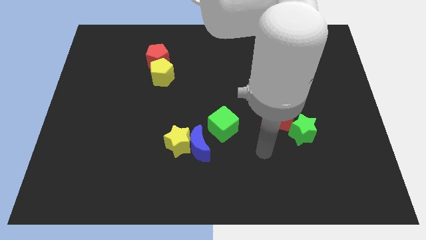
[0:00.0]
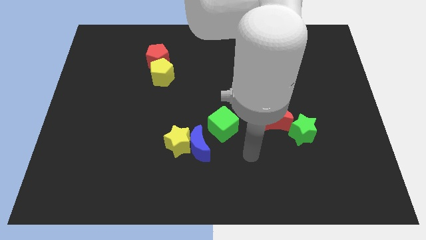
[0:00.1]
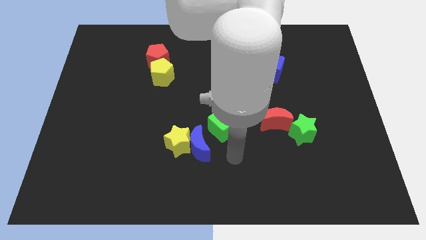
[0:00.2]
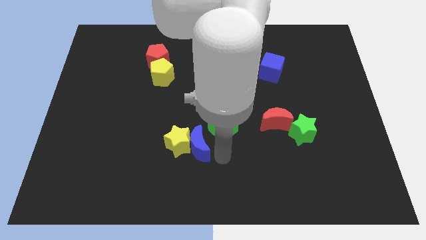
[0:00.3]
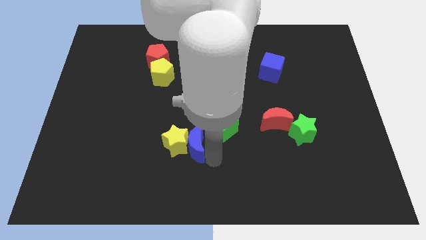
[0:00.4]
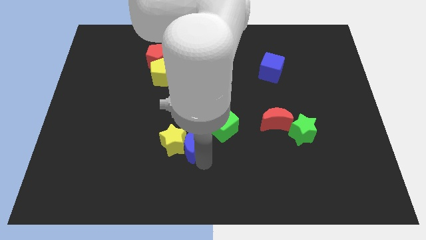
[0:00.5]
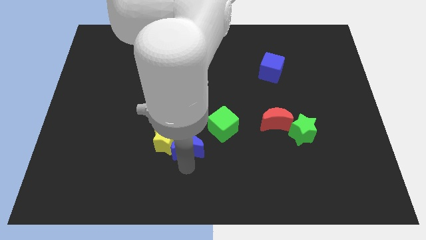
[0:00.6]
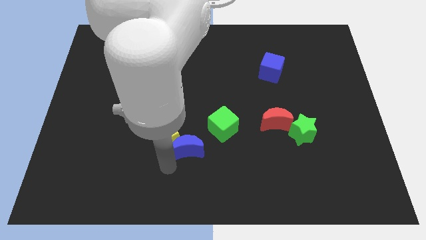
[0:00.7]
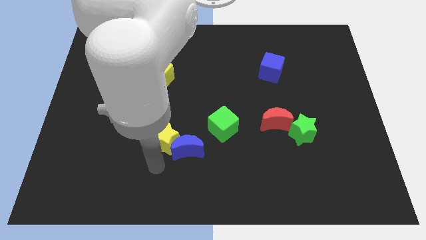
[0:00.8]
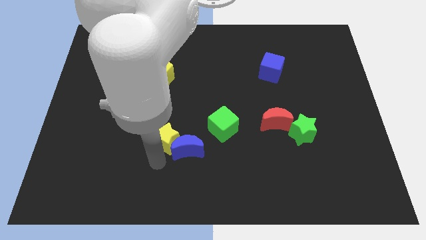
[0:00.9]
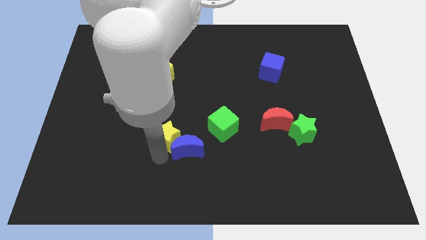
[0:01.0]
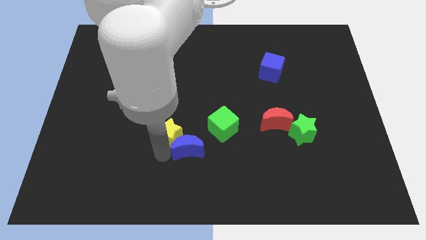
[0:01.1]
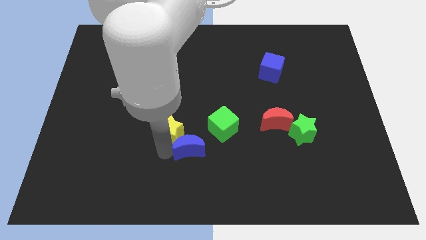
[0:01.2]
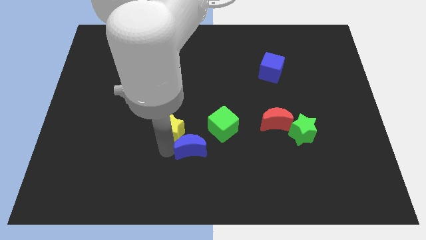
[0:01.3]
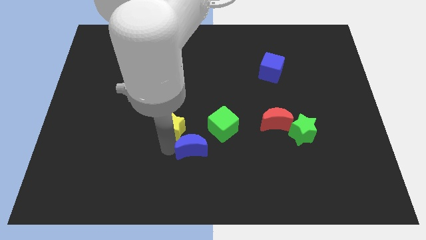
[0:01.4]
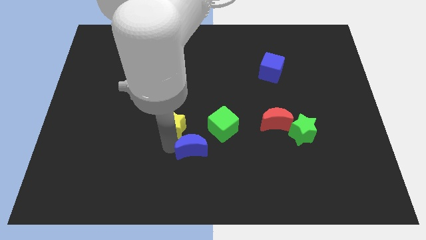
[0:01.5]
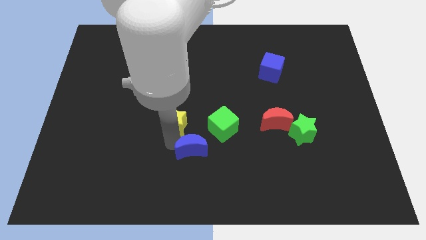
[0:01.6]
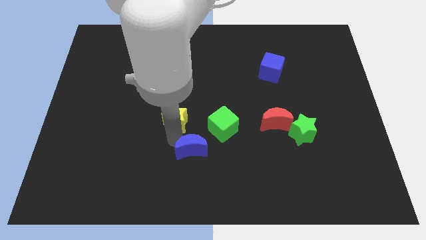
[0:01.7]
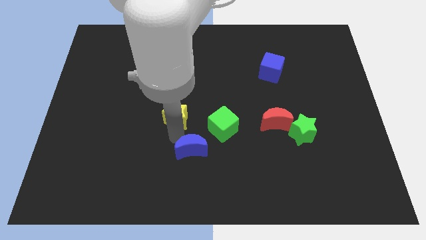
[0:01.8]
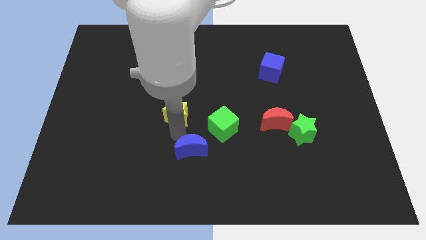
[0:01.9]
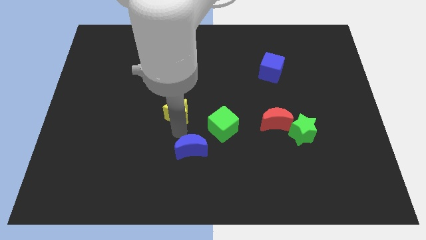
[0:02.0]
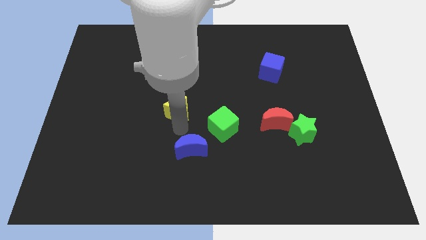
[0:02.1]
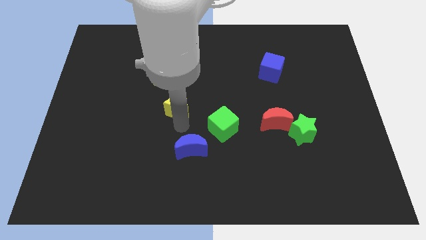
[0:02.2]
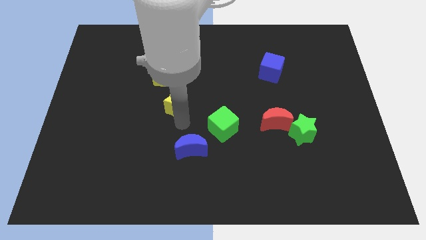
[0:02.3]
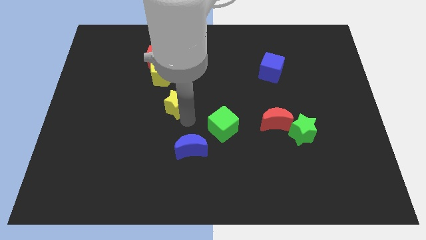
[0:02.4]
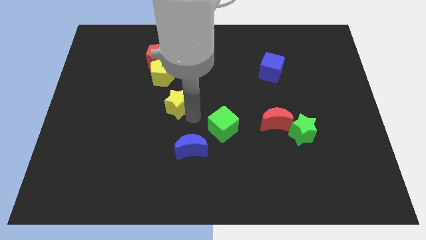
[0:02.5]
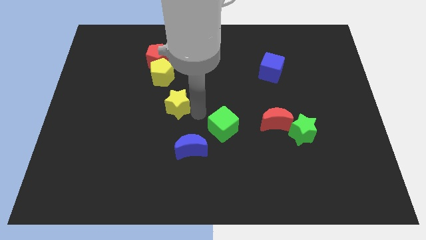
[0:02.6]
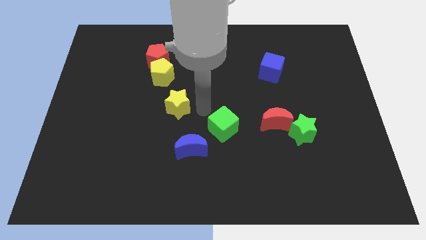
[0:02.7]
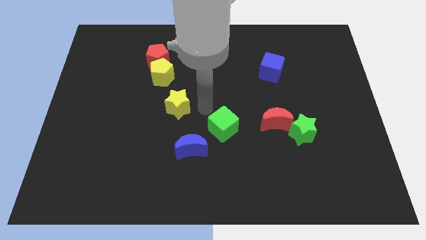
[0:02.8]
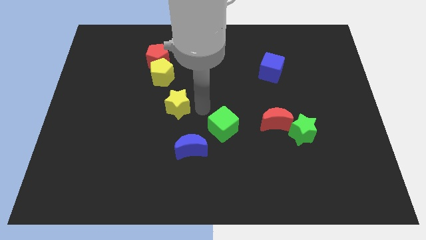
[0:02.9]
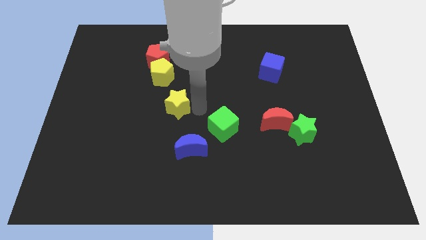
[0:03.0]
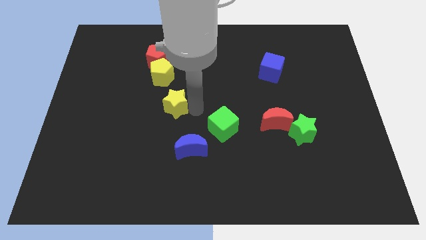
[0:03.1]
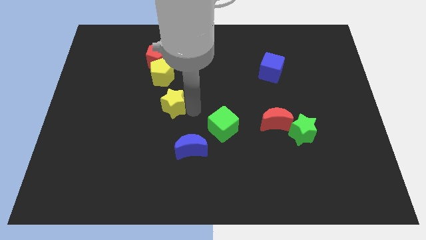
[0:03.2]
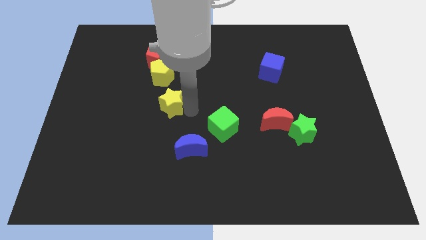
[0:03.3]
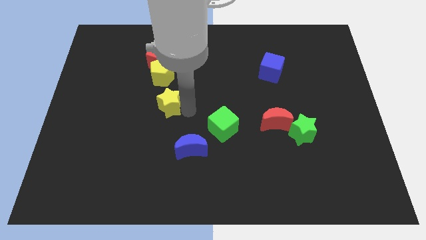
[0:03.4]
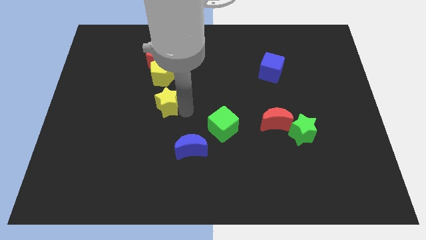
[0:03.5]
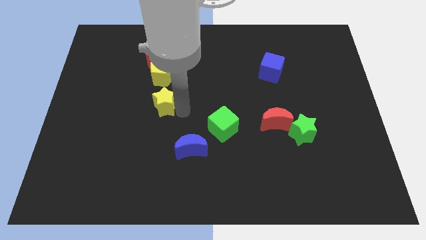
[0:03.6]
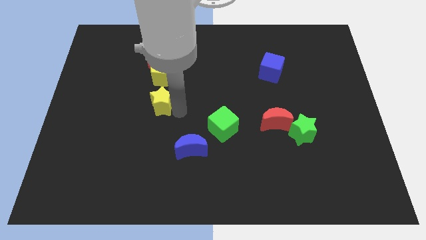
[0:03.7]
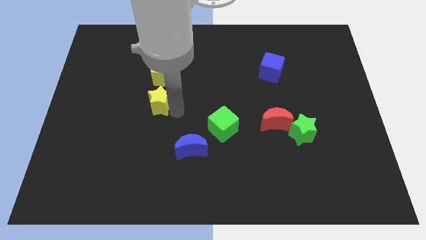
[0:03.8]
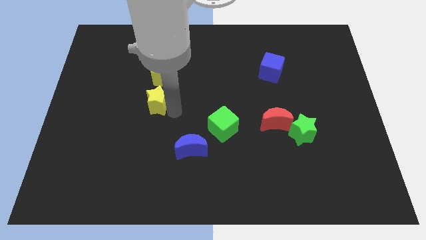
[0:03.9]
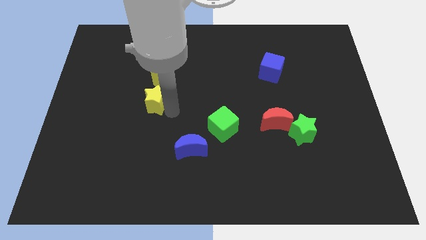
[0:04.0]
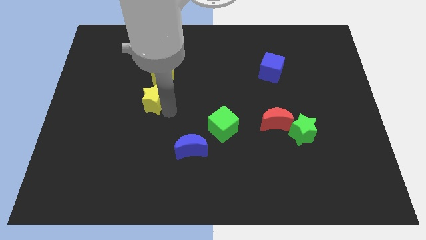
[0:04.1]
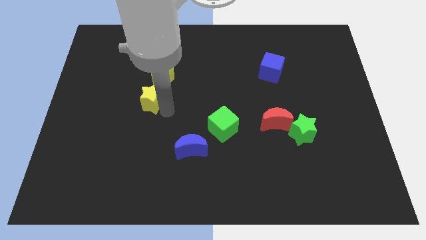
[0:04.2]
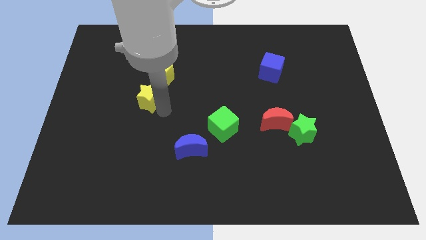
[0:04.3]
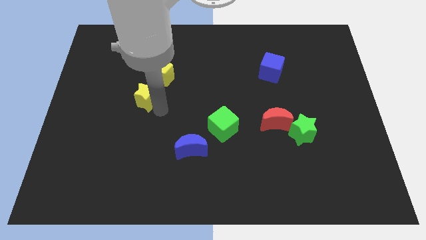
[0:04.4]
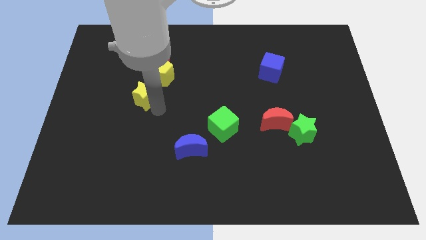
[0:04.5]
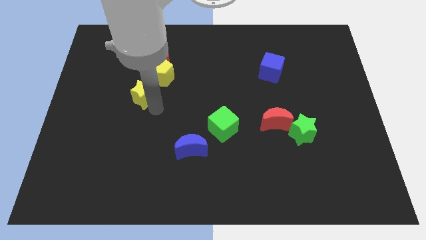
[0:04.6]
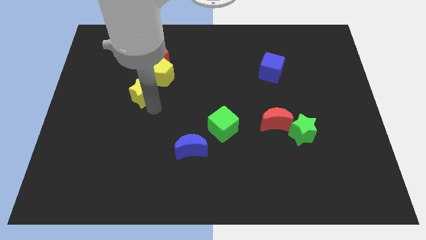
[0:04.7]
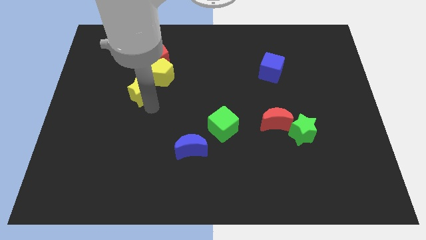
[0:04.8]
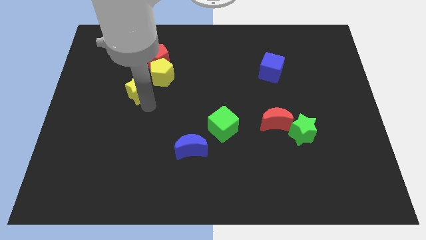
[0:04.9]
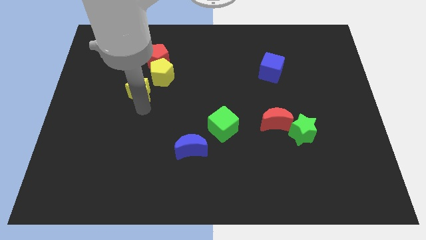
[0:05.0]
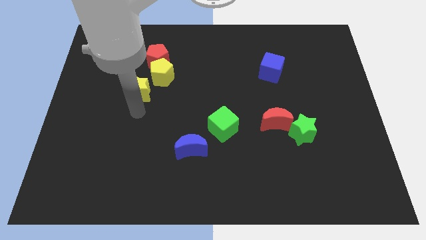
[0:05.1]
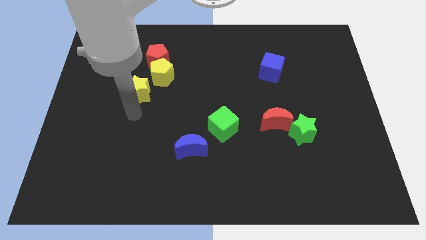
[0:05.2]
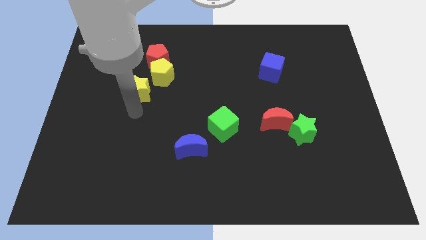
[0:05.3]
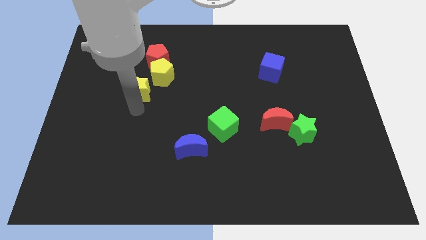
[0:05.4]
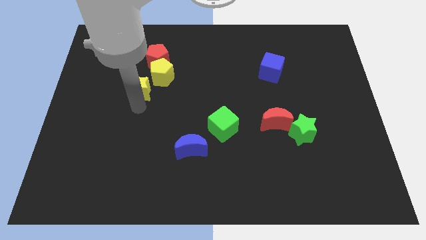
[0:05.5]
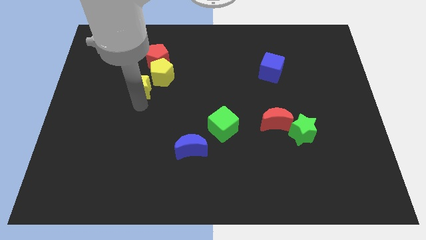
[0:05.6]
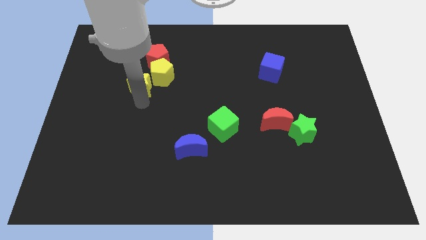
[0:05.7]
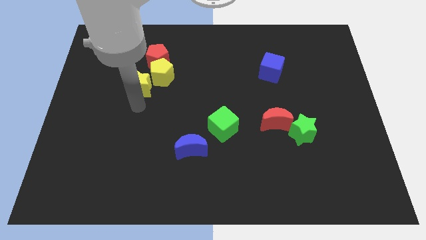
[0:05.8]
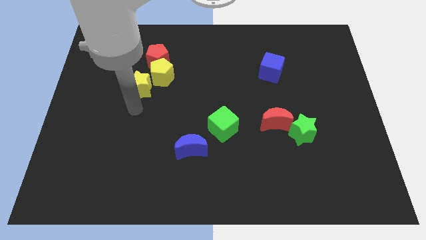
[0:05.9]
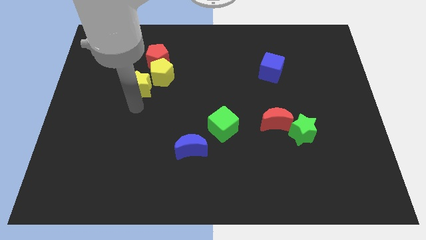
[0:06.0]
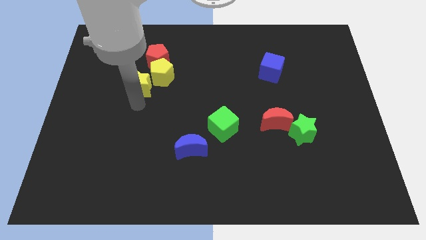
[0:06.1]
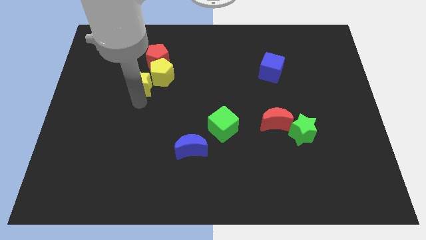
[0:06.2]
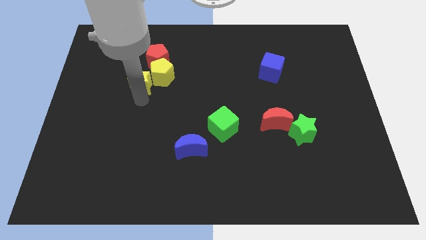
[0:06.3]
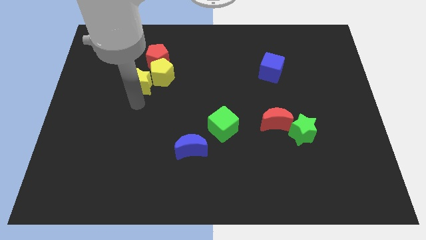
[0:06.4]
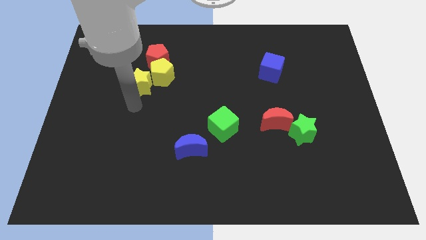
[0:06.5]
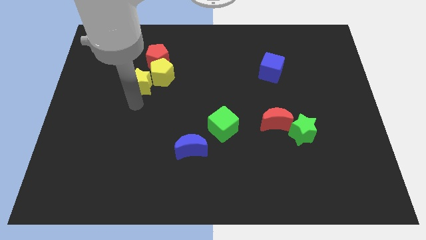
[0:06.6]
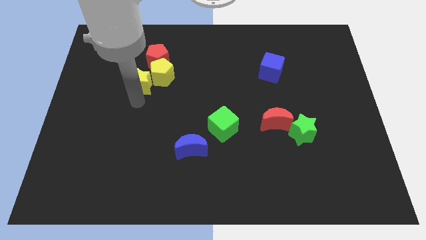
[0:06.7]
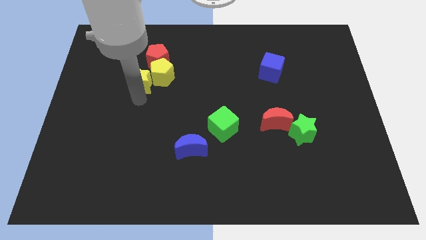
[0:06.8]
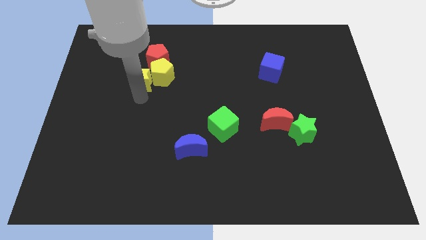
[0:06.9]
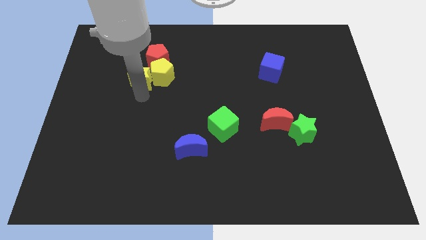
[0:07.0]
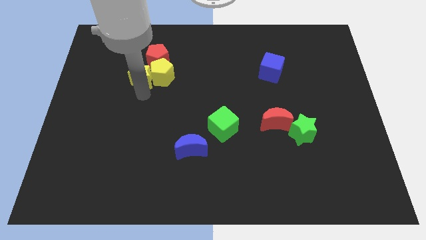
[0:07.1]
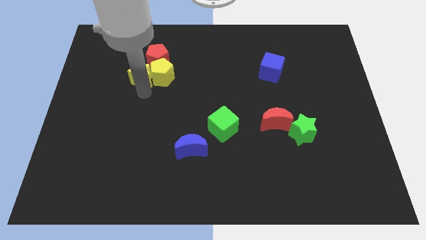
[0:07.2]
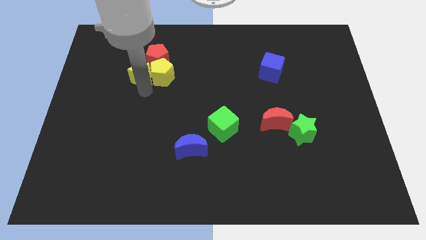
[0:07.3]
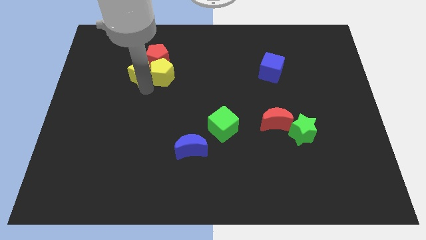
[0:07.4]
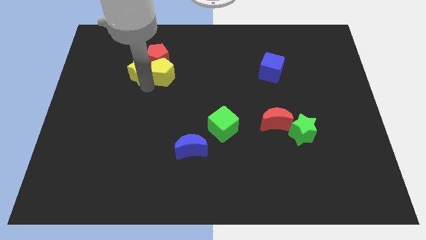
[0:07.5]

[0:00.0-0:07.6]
slide the yellow star to the red pentagon

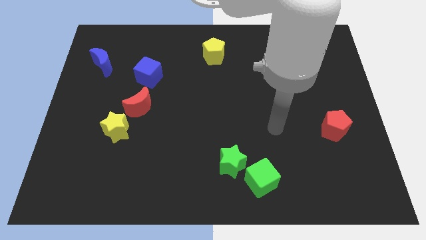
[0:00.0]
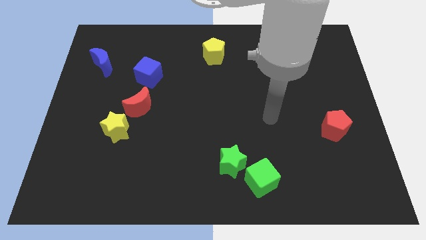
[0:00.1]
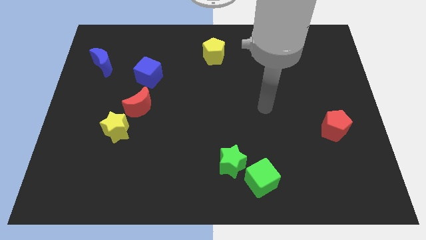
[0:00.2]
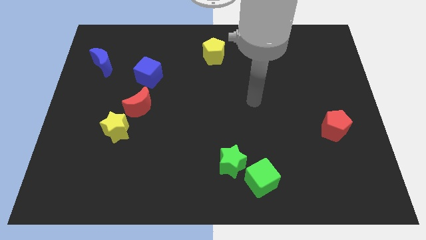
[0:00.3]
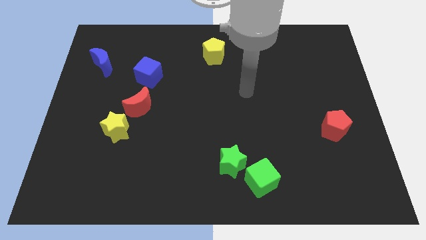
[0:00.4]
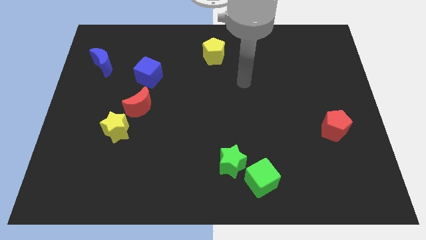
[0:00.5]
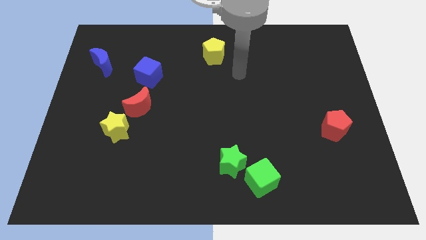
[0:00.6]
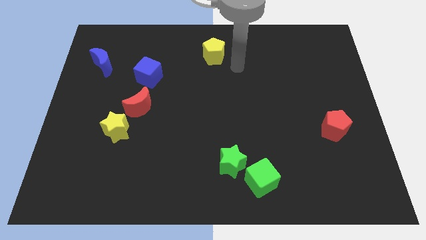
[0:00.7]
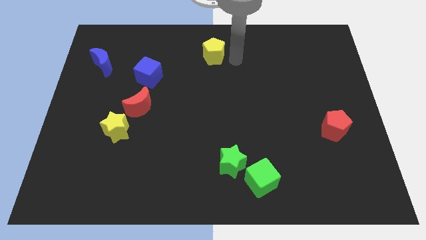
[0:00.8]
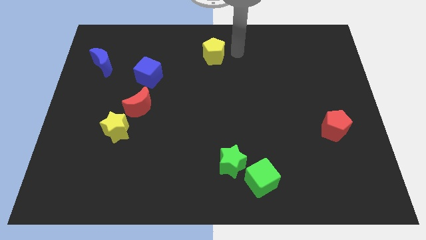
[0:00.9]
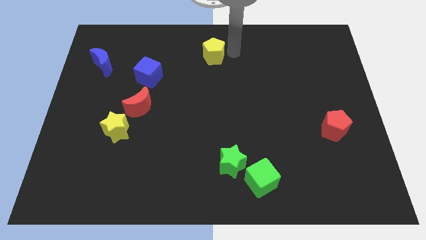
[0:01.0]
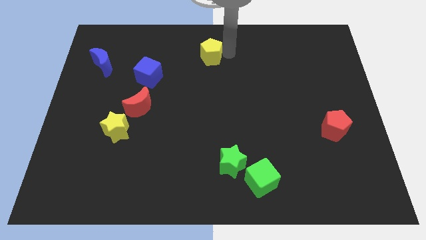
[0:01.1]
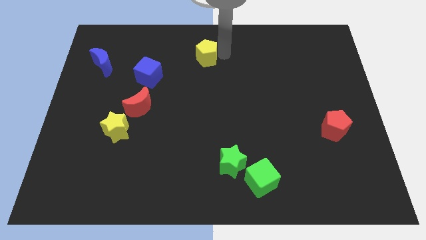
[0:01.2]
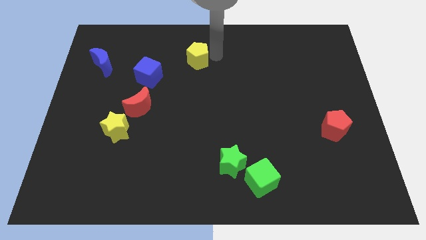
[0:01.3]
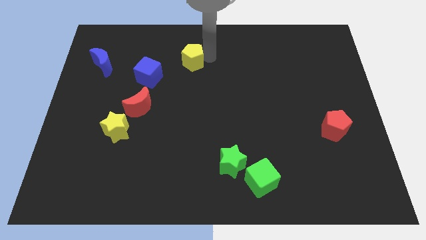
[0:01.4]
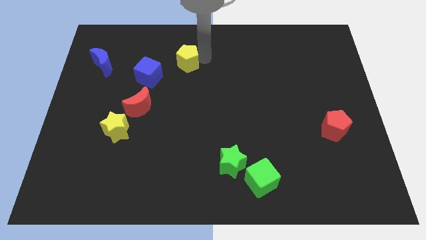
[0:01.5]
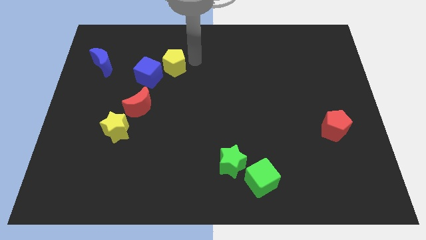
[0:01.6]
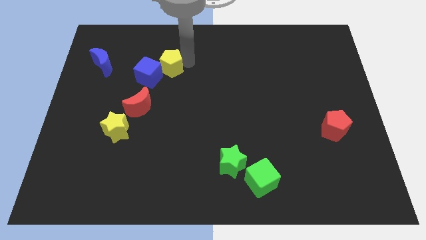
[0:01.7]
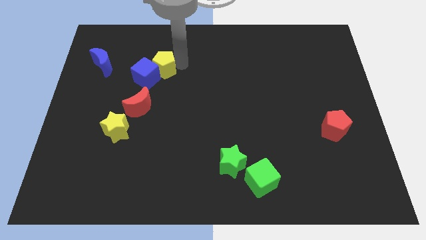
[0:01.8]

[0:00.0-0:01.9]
move the yellow pentagon next to the blue cube
